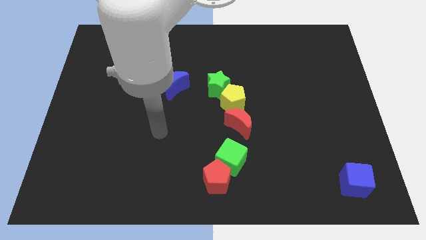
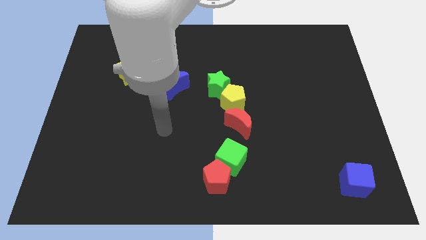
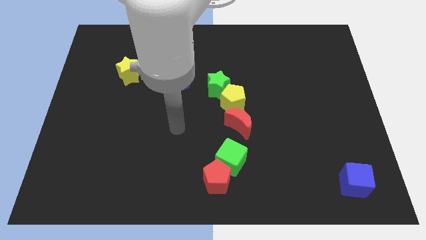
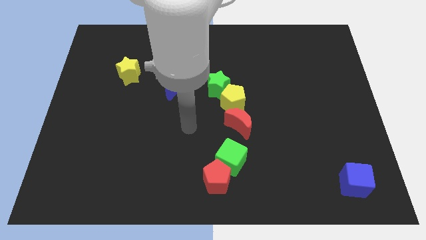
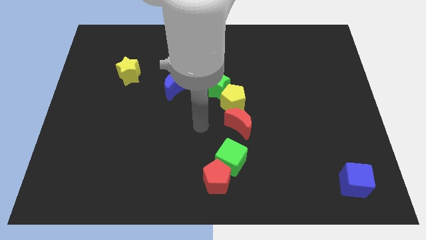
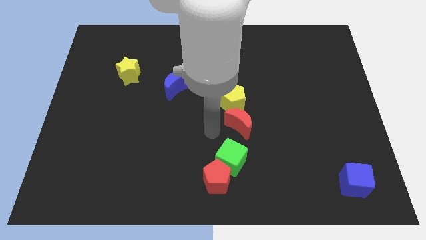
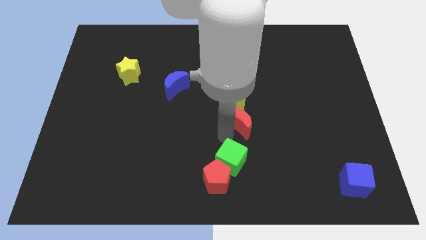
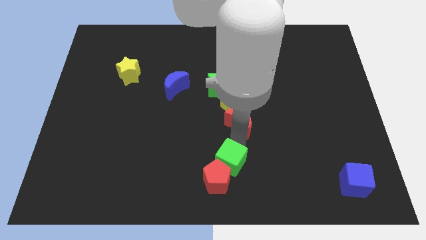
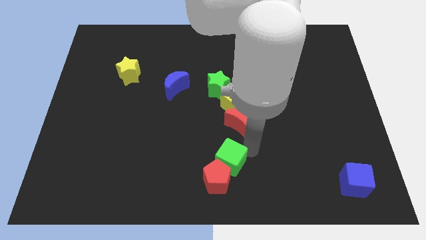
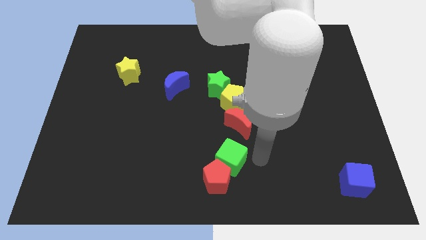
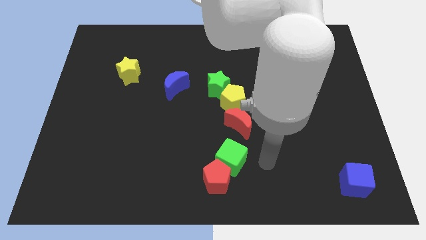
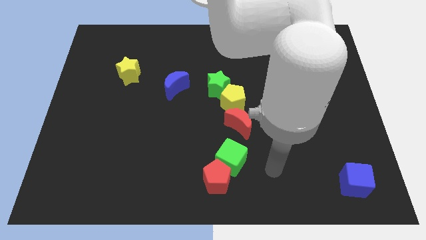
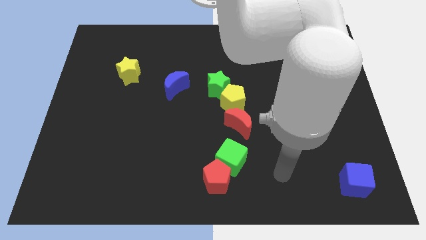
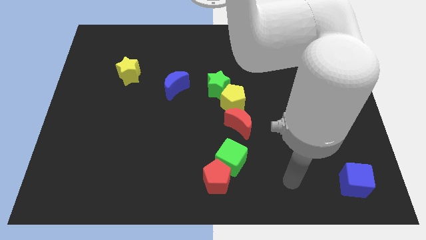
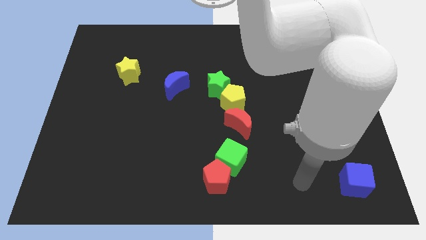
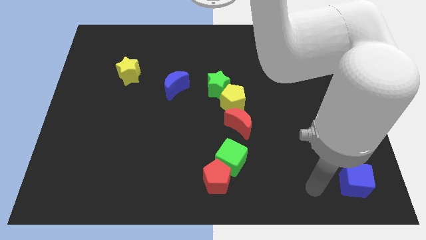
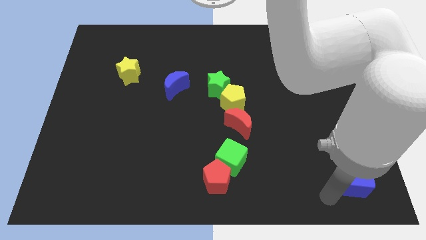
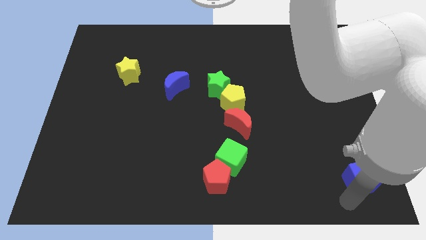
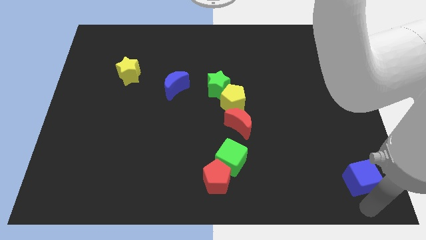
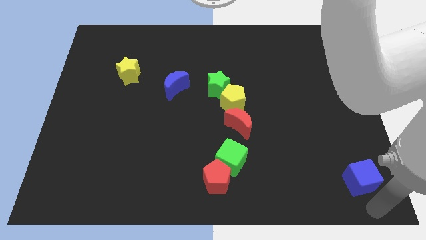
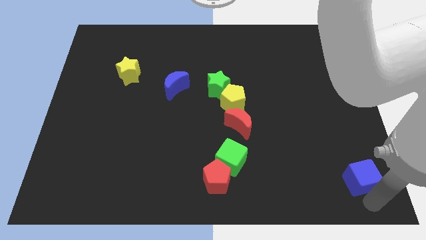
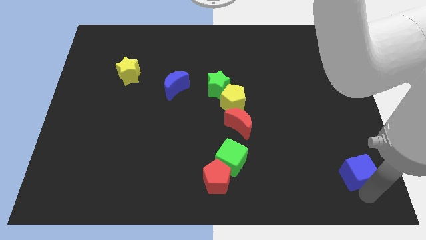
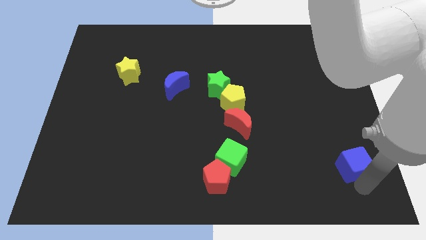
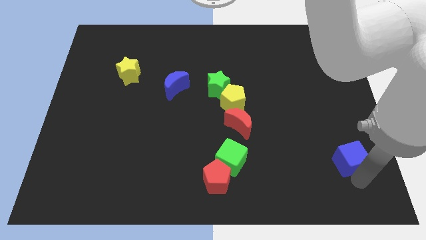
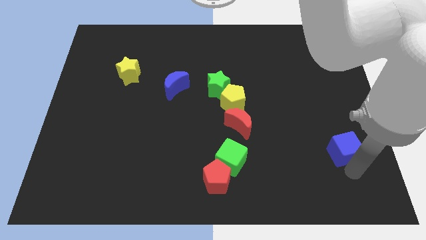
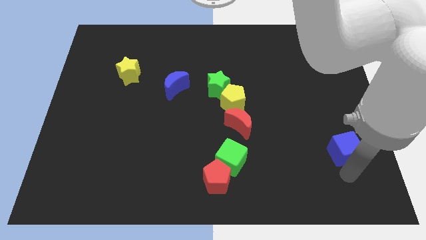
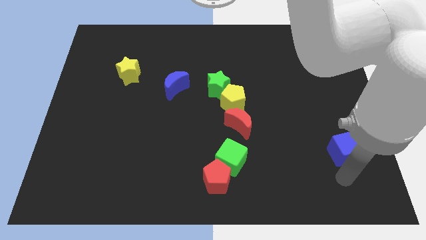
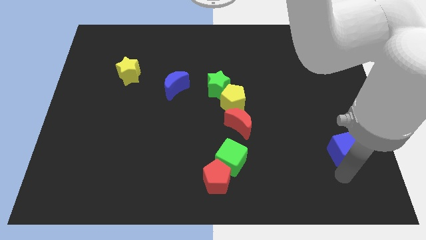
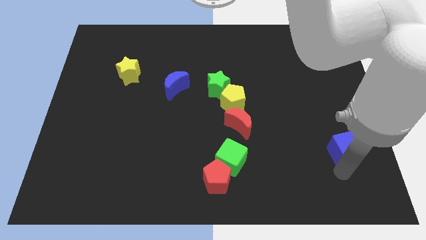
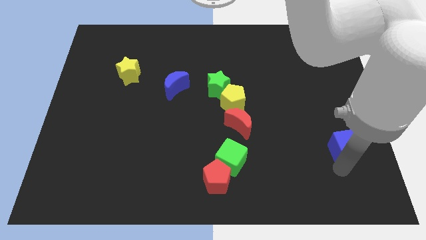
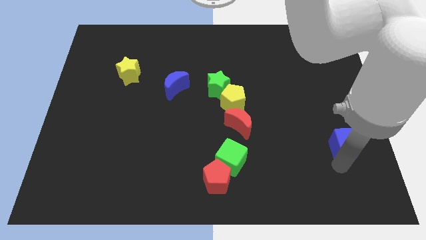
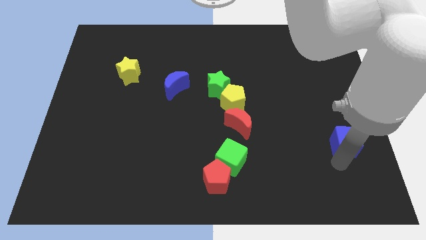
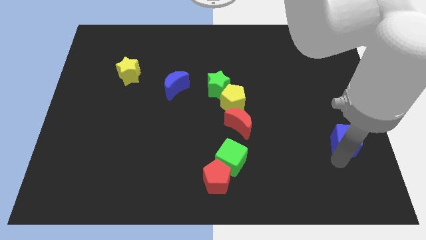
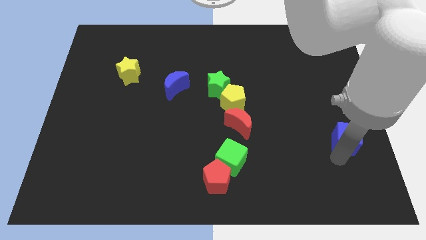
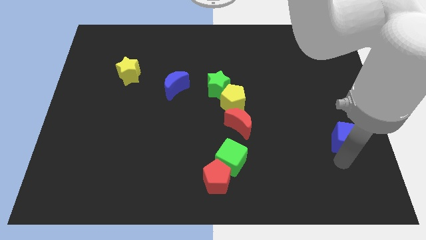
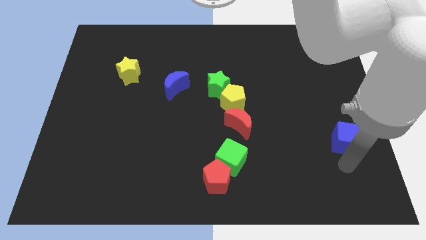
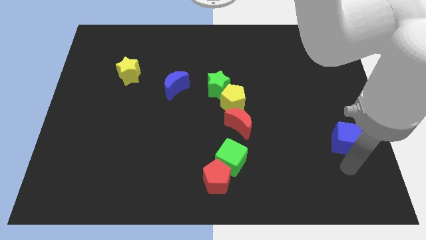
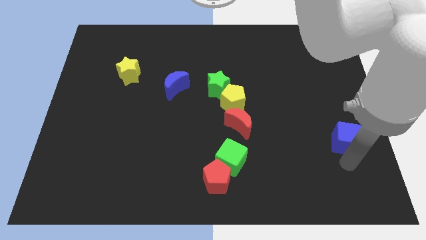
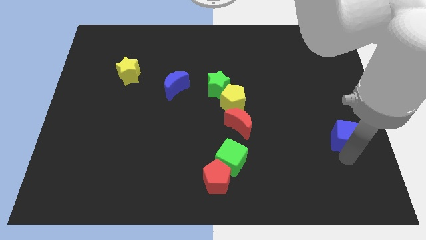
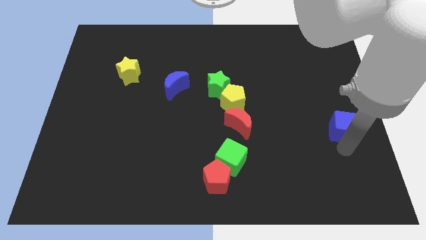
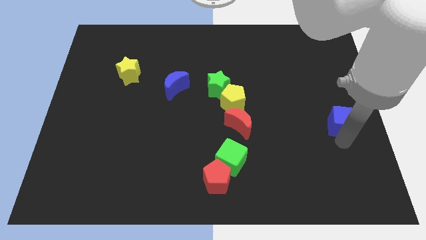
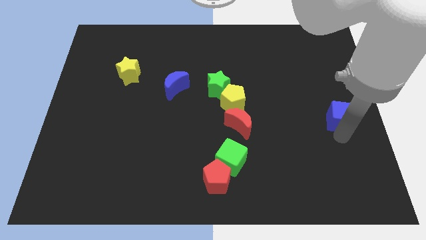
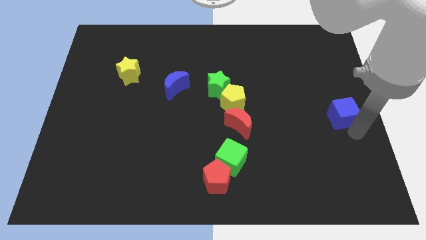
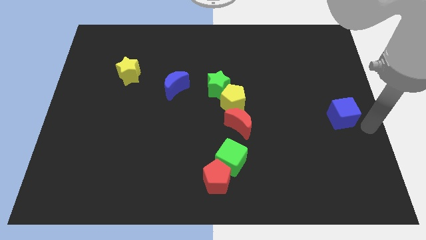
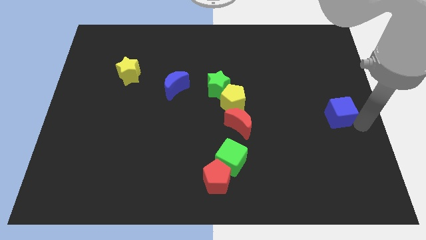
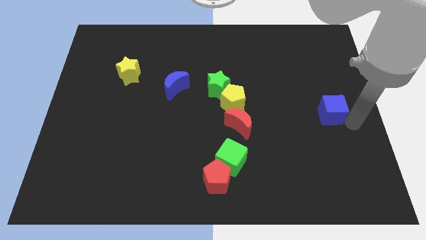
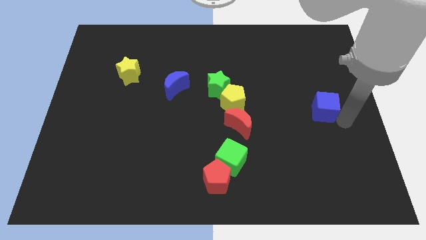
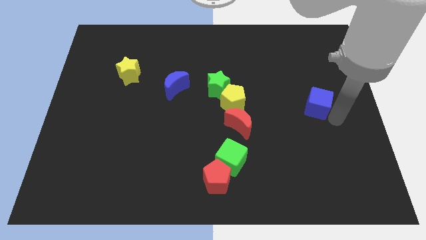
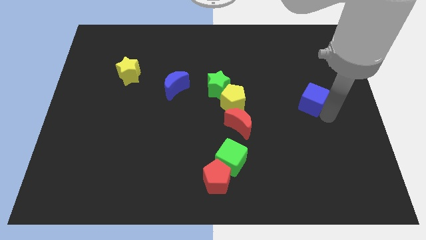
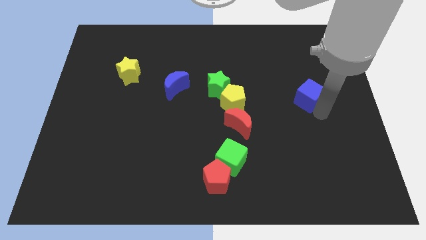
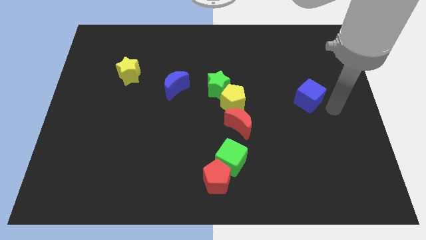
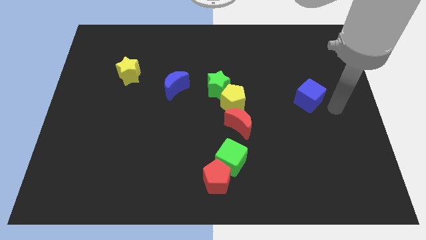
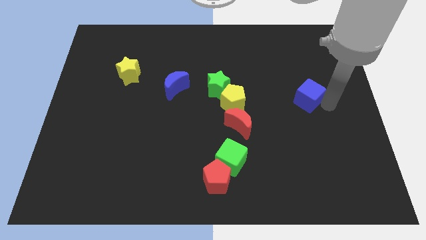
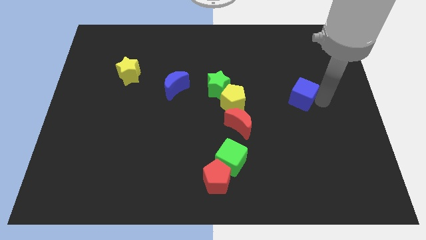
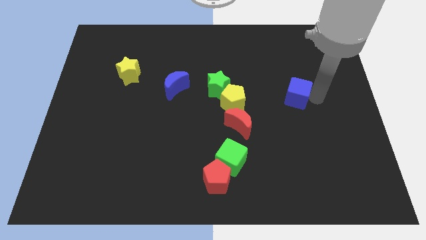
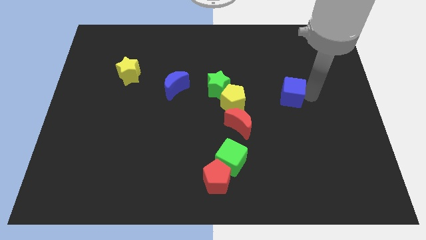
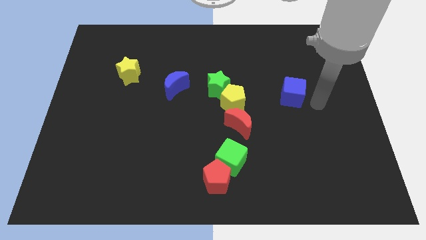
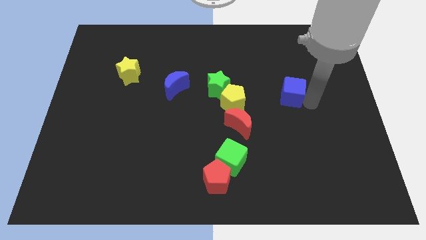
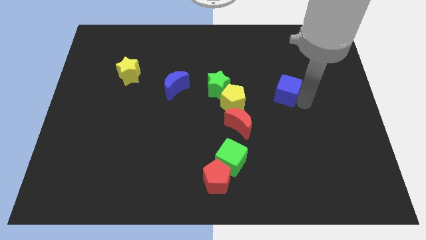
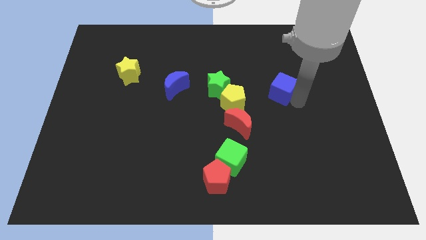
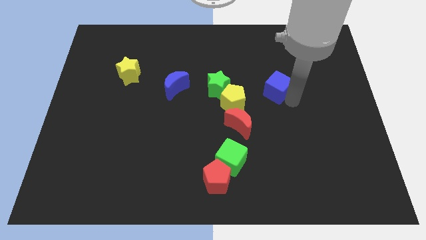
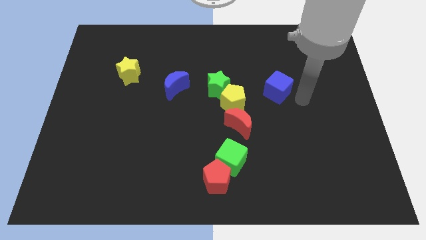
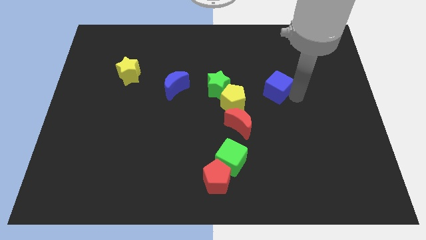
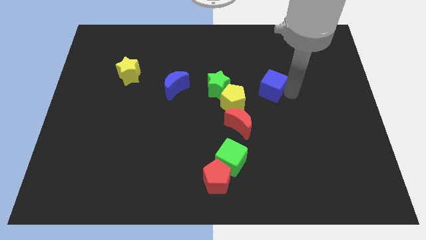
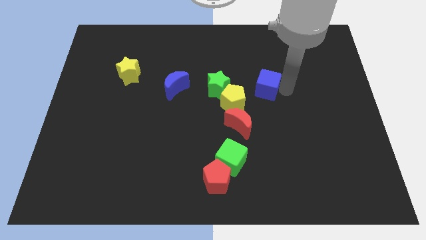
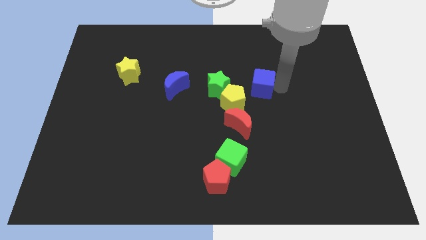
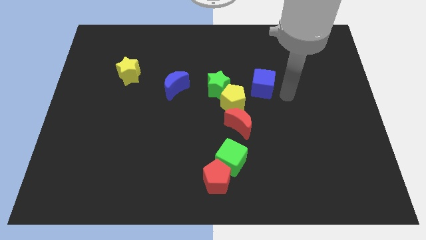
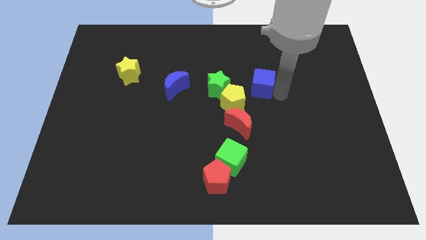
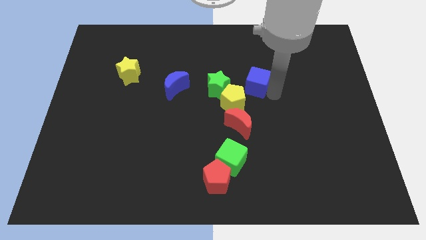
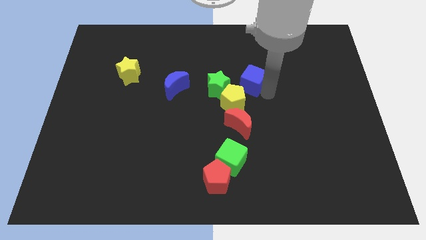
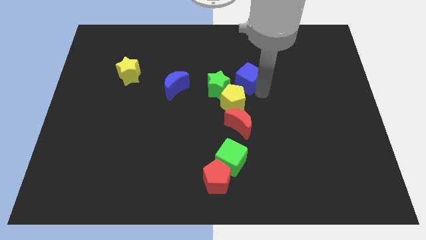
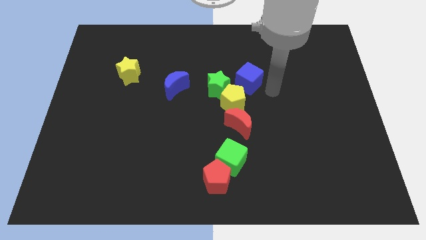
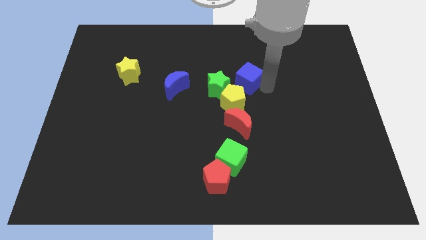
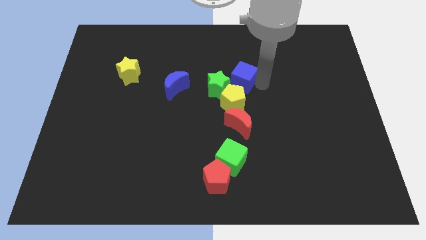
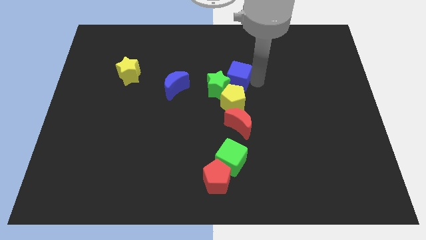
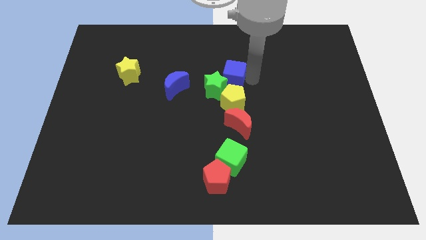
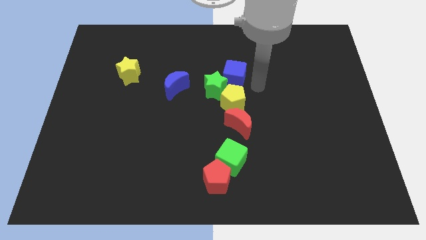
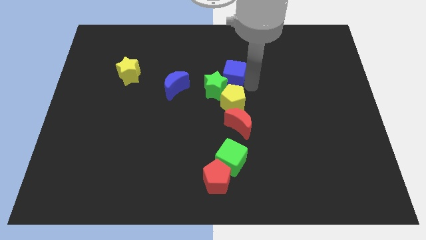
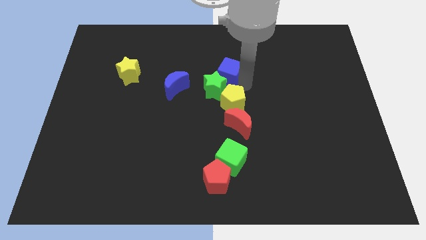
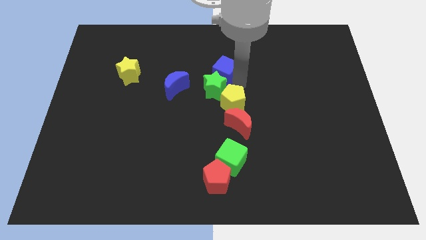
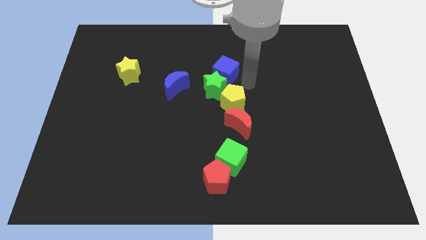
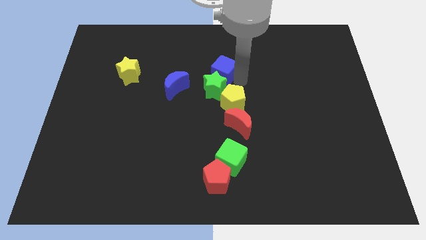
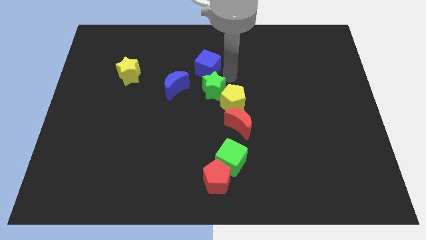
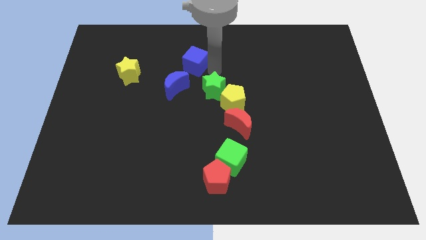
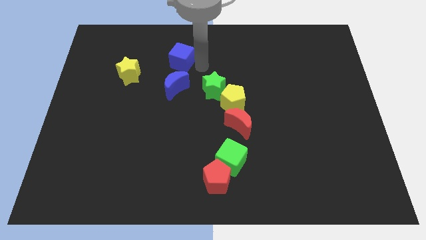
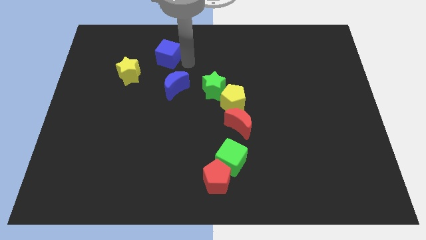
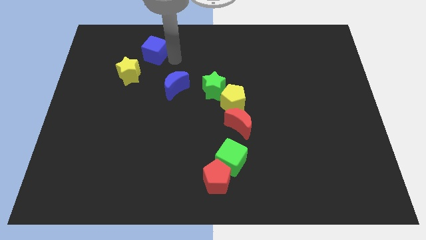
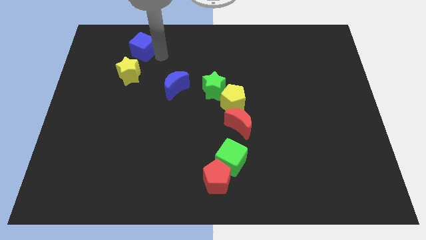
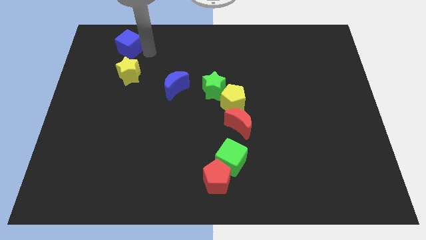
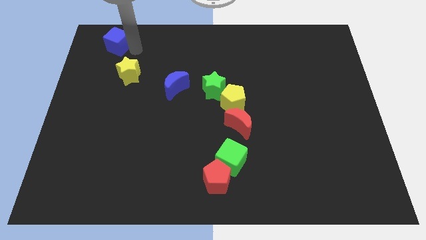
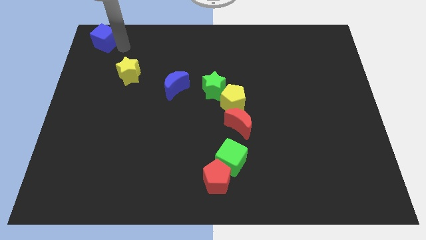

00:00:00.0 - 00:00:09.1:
slide the blue cube to the upper left corner
